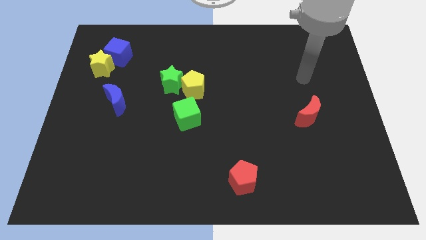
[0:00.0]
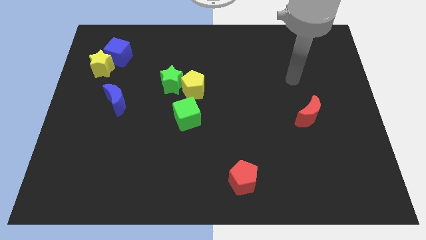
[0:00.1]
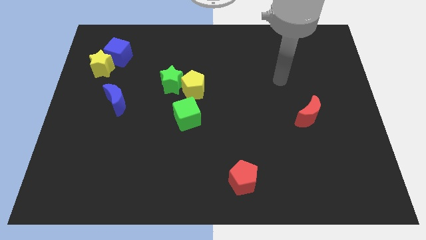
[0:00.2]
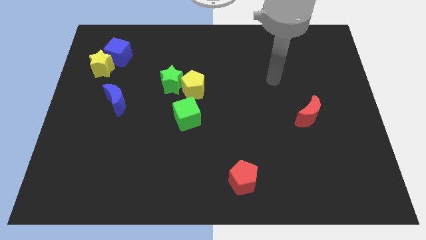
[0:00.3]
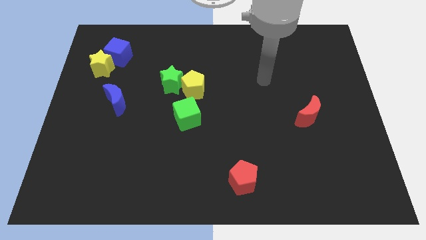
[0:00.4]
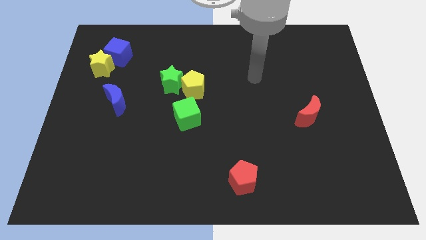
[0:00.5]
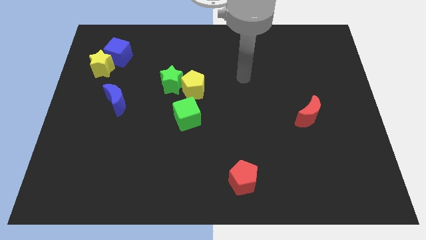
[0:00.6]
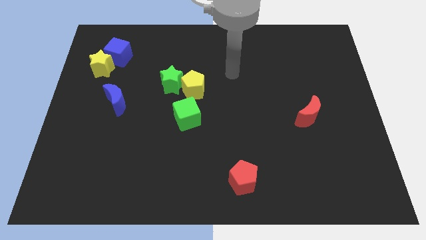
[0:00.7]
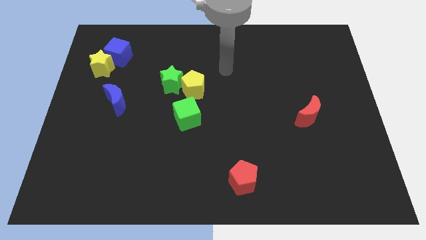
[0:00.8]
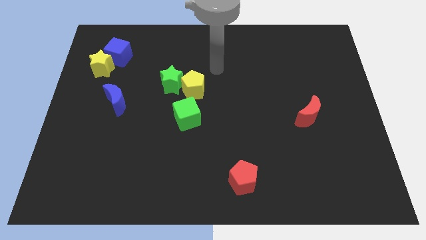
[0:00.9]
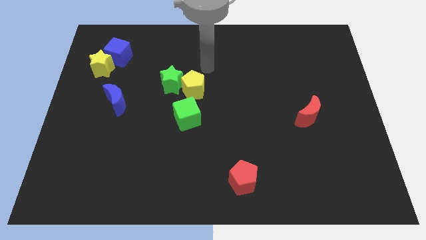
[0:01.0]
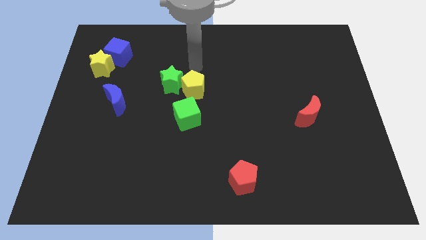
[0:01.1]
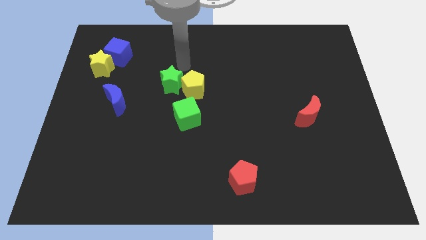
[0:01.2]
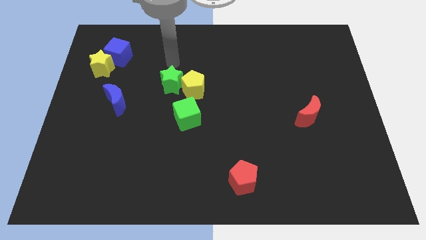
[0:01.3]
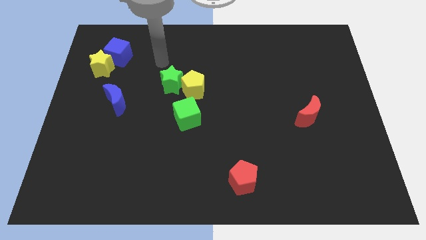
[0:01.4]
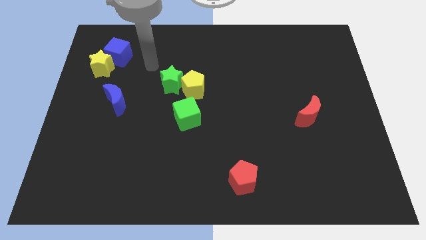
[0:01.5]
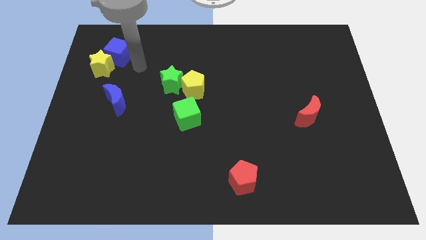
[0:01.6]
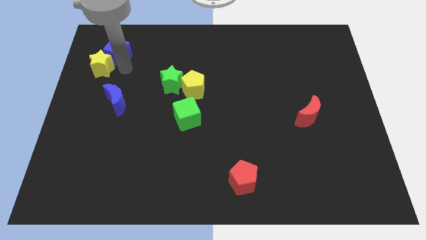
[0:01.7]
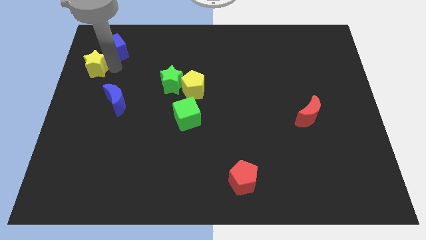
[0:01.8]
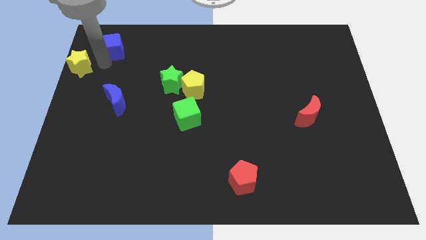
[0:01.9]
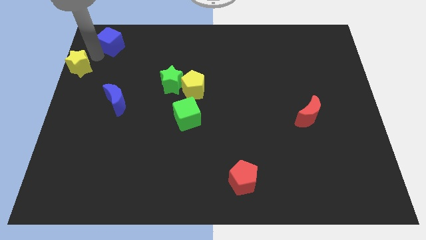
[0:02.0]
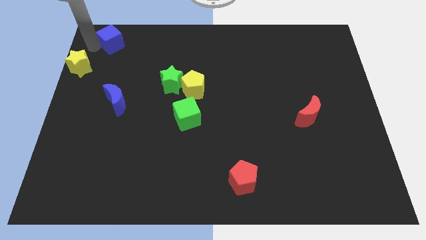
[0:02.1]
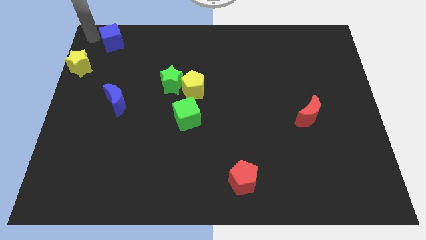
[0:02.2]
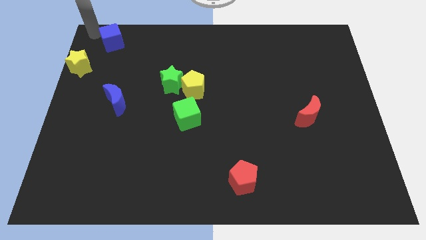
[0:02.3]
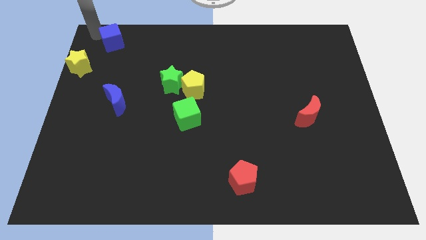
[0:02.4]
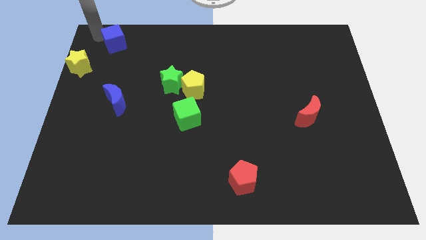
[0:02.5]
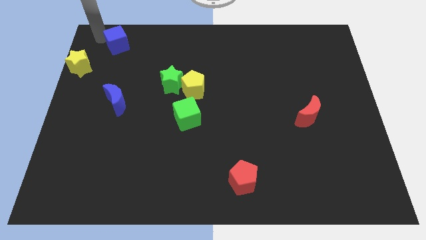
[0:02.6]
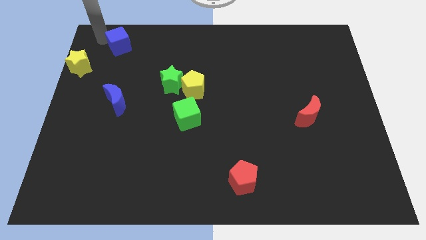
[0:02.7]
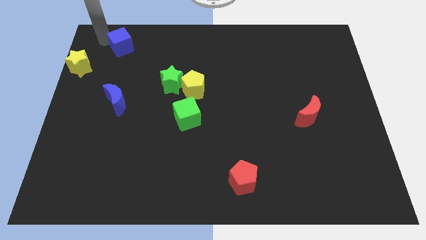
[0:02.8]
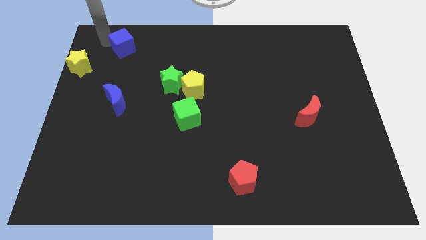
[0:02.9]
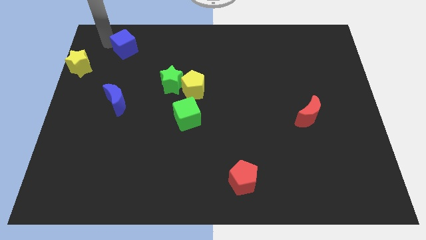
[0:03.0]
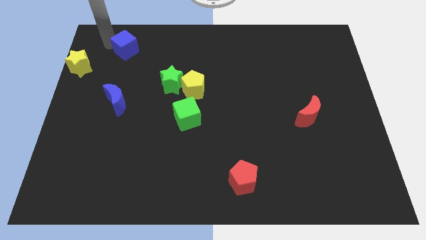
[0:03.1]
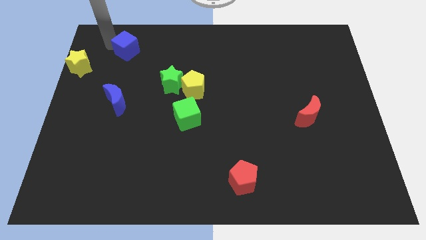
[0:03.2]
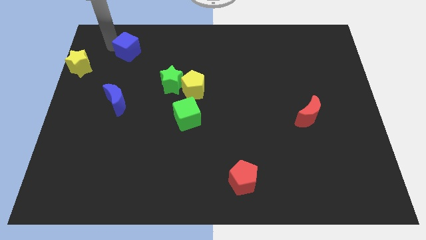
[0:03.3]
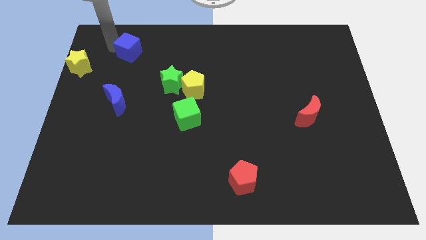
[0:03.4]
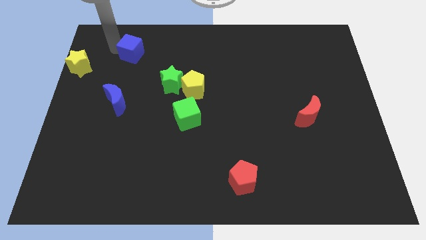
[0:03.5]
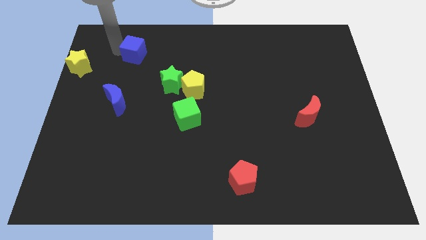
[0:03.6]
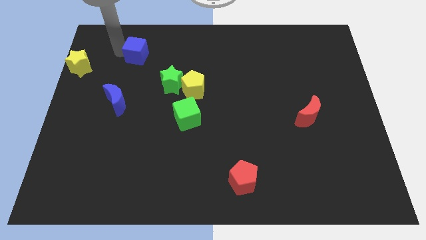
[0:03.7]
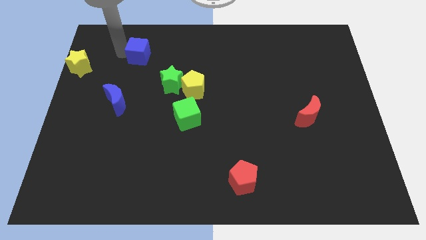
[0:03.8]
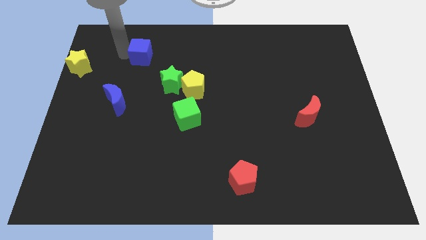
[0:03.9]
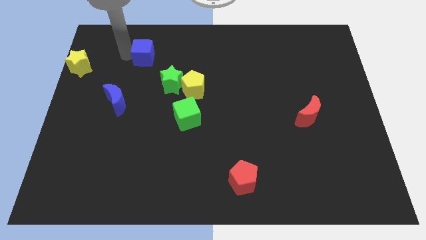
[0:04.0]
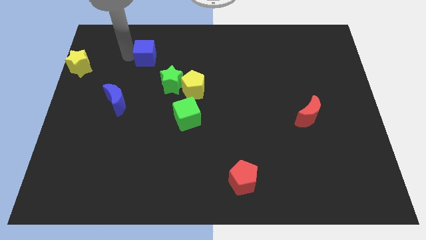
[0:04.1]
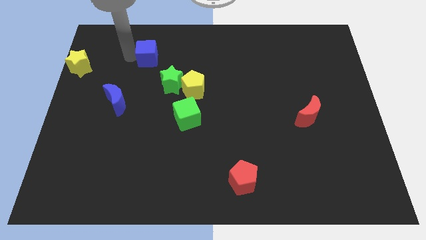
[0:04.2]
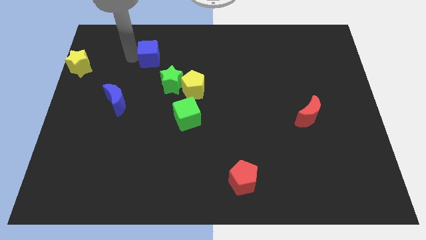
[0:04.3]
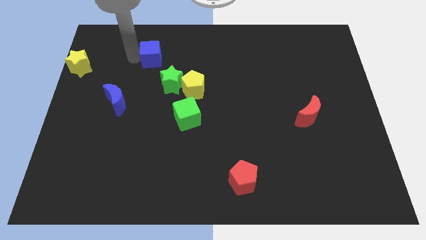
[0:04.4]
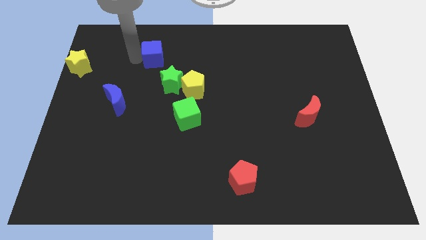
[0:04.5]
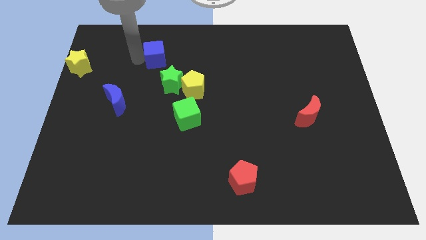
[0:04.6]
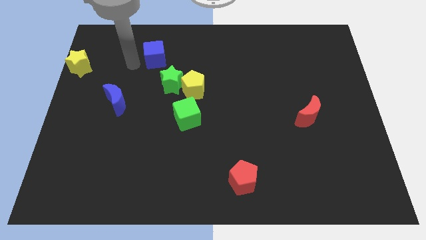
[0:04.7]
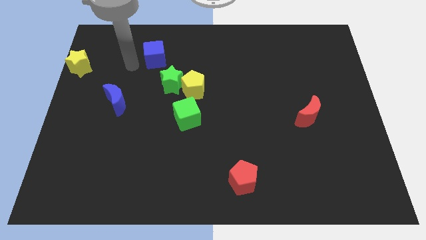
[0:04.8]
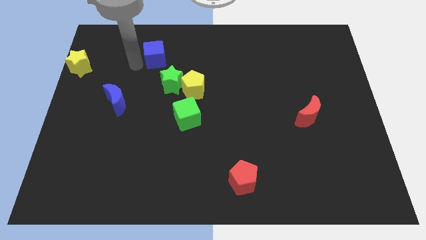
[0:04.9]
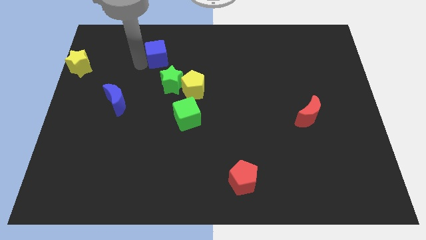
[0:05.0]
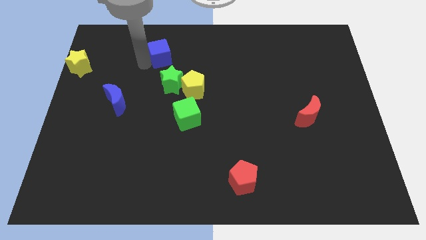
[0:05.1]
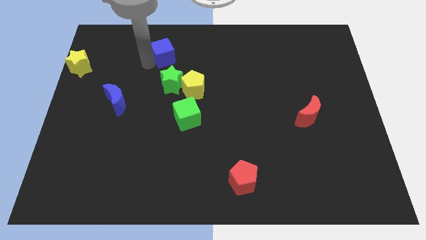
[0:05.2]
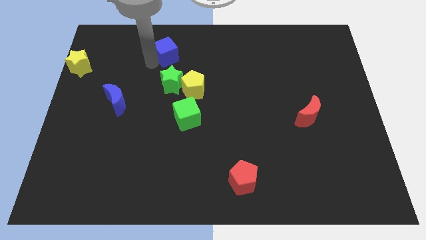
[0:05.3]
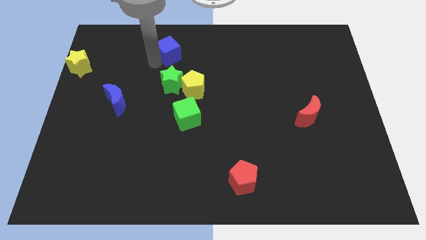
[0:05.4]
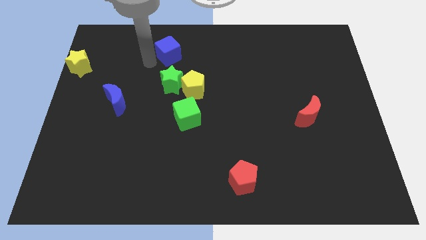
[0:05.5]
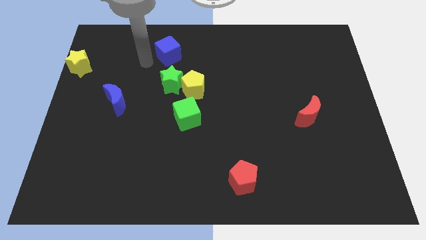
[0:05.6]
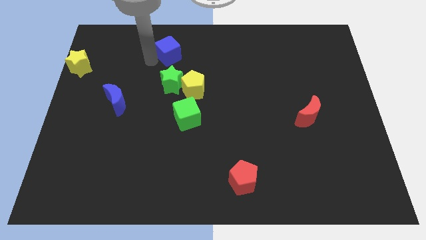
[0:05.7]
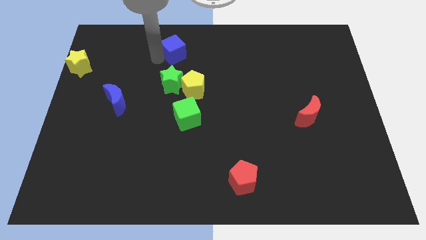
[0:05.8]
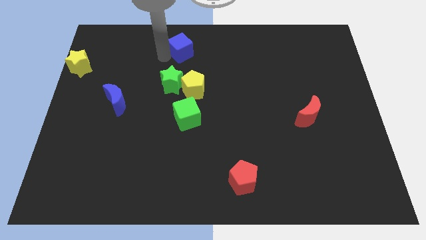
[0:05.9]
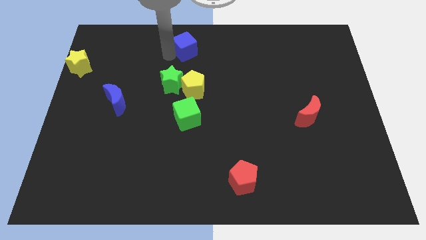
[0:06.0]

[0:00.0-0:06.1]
push the blue cube to the top

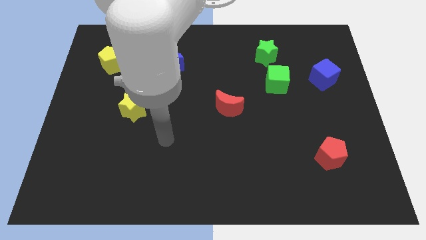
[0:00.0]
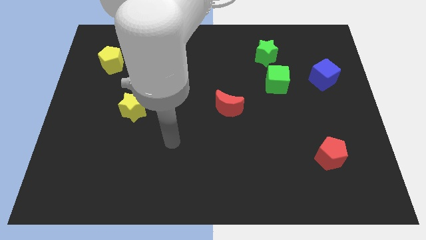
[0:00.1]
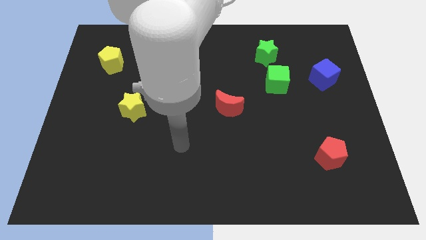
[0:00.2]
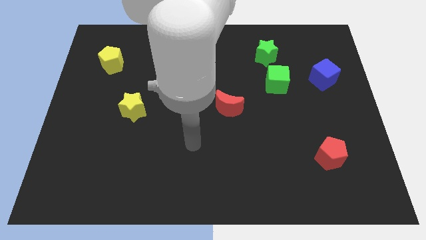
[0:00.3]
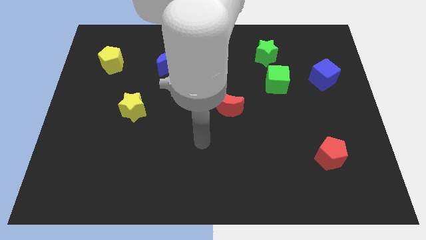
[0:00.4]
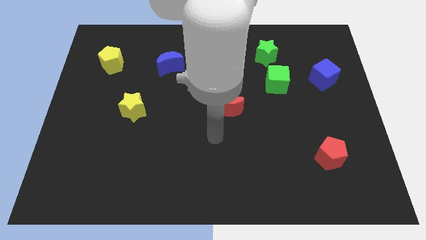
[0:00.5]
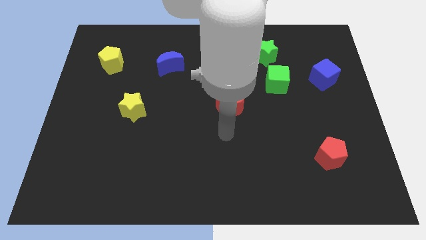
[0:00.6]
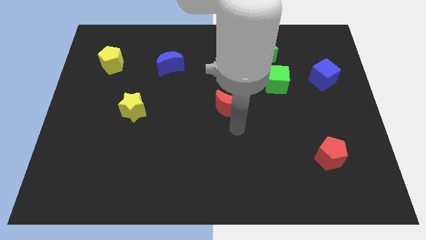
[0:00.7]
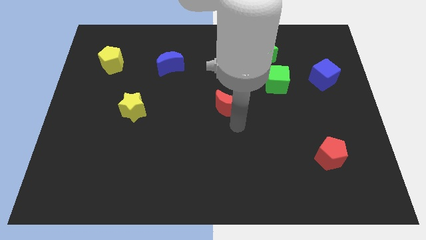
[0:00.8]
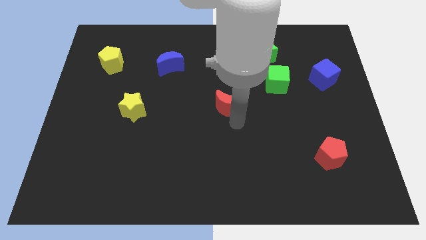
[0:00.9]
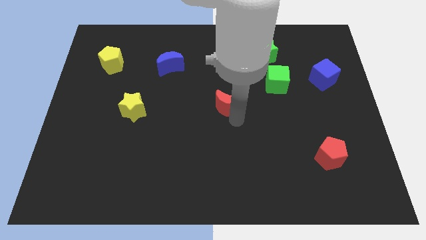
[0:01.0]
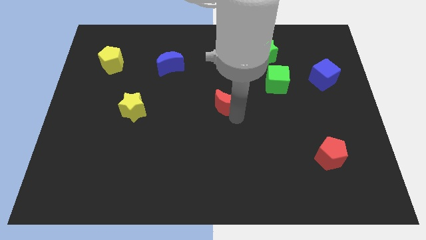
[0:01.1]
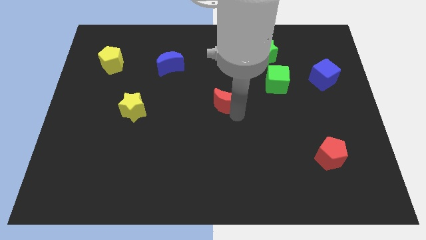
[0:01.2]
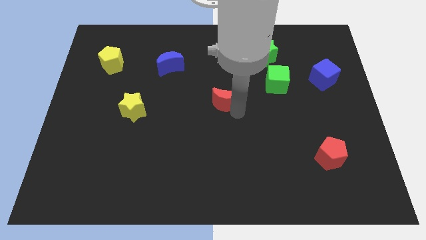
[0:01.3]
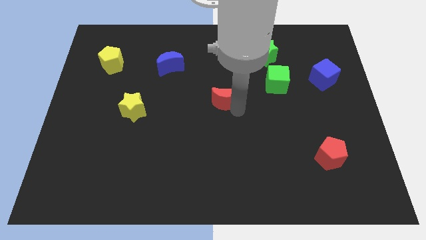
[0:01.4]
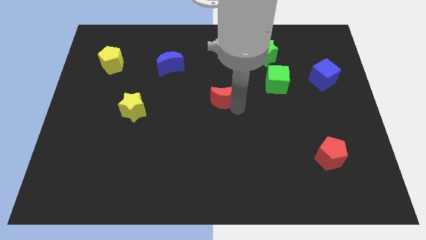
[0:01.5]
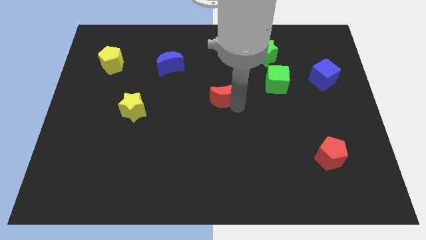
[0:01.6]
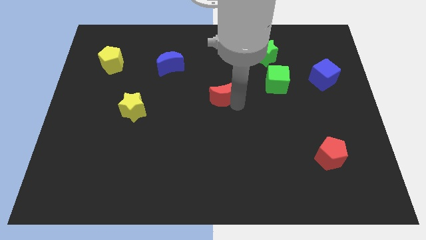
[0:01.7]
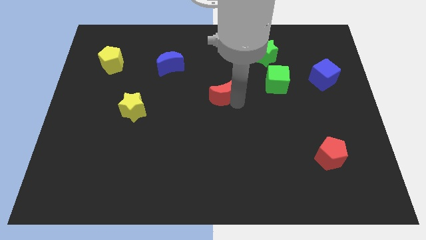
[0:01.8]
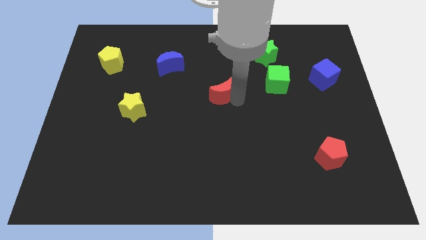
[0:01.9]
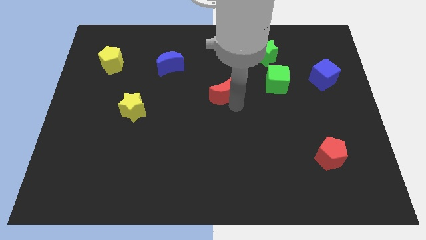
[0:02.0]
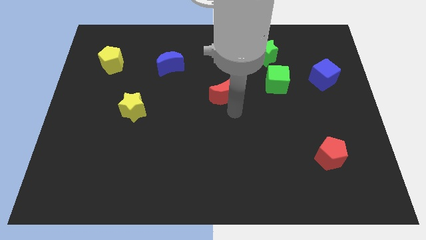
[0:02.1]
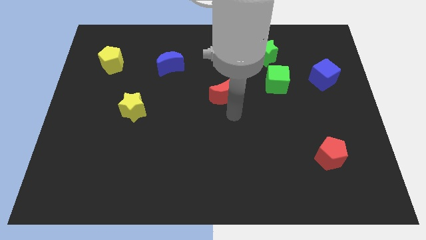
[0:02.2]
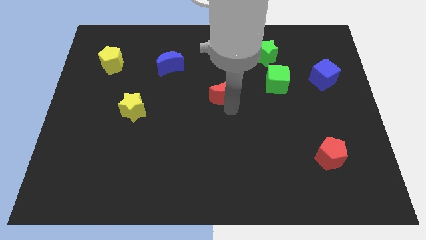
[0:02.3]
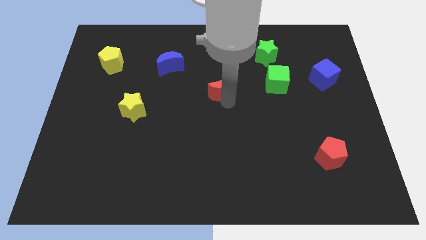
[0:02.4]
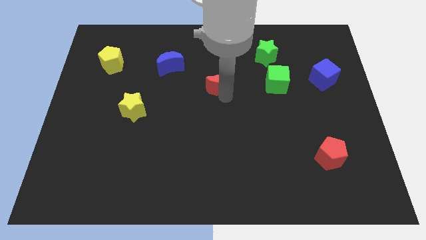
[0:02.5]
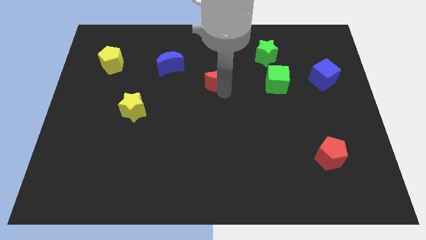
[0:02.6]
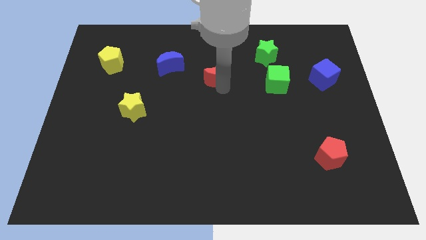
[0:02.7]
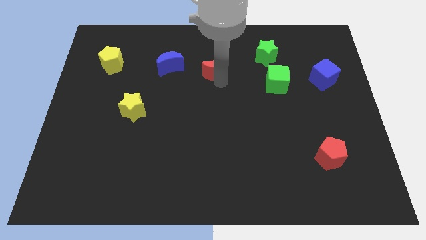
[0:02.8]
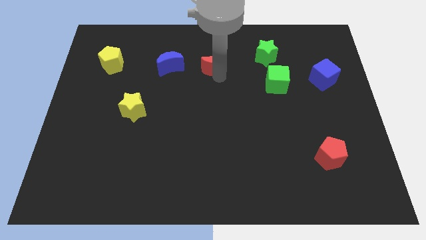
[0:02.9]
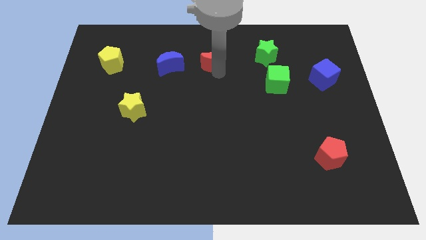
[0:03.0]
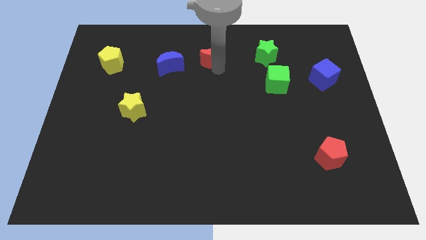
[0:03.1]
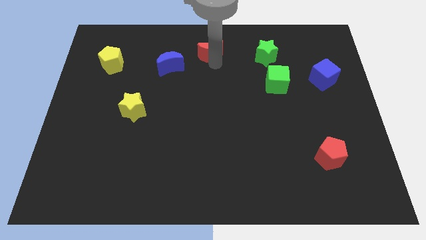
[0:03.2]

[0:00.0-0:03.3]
push the red moon to the top side
